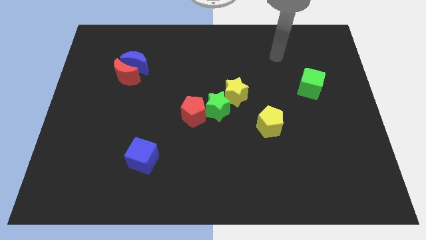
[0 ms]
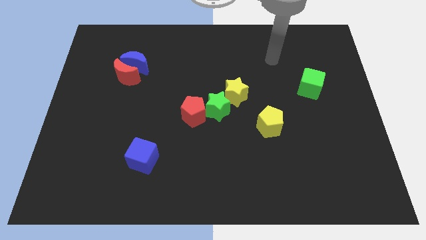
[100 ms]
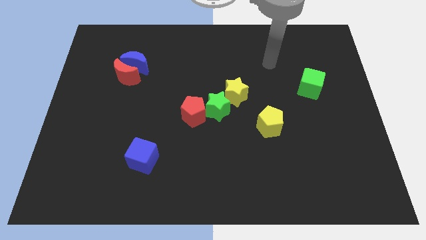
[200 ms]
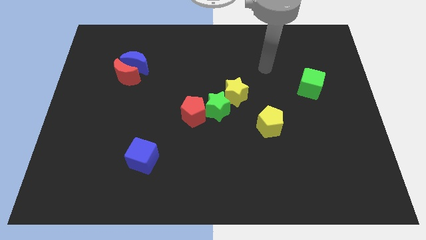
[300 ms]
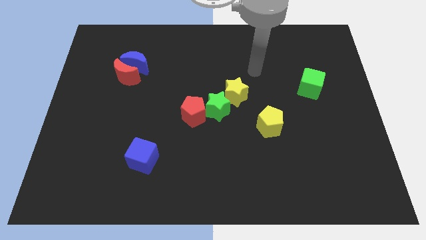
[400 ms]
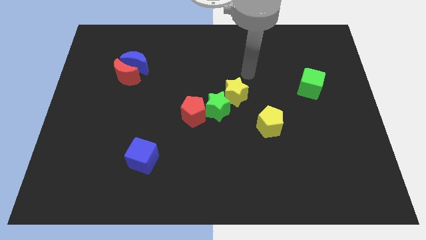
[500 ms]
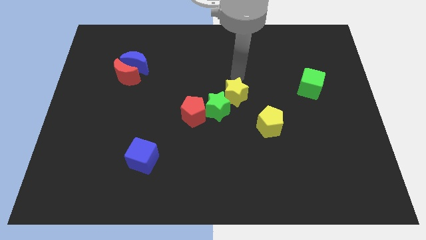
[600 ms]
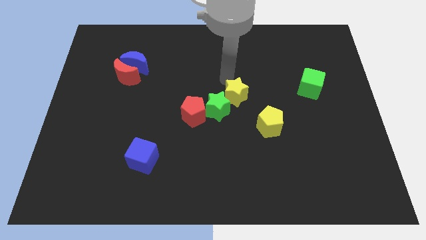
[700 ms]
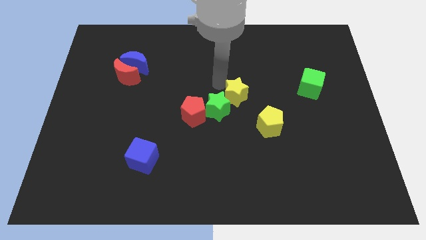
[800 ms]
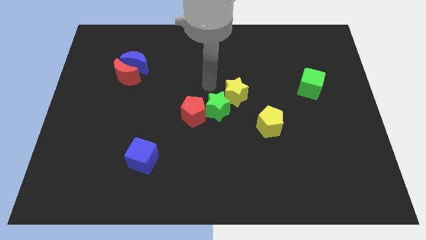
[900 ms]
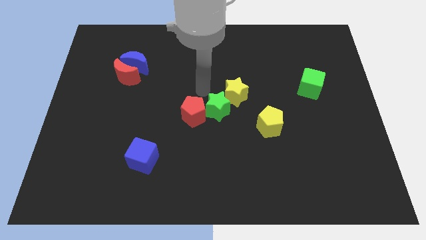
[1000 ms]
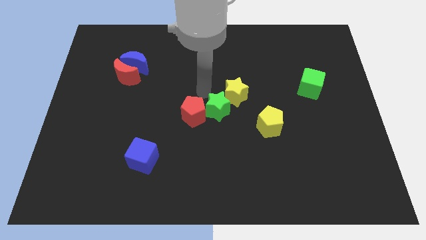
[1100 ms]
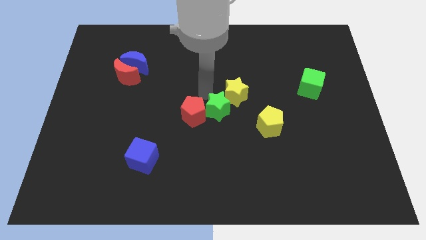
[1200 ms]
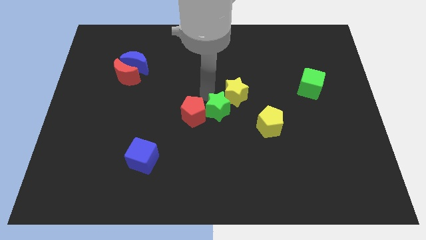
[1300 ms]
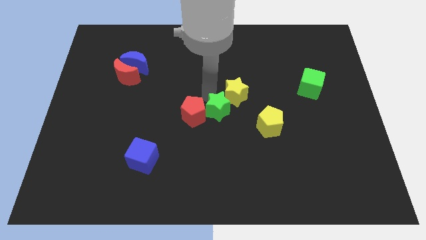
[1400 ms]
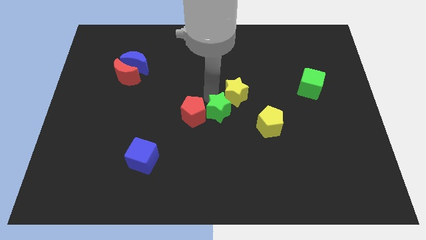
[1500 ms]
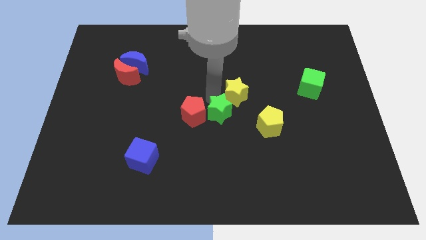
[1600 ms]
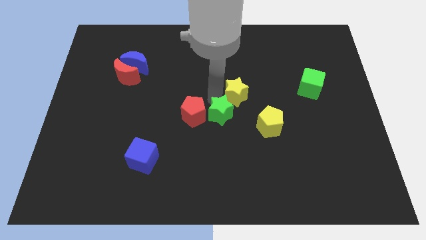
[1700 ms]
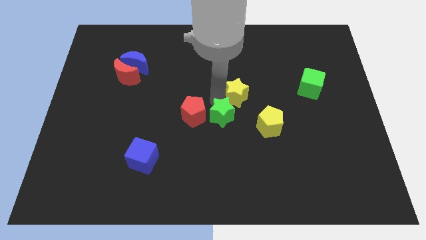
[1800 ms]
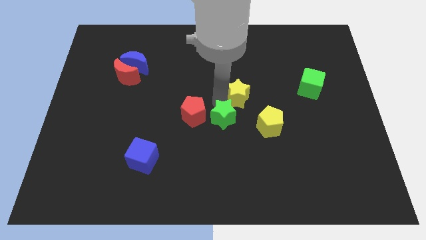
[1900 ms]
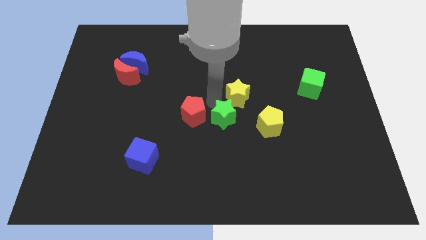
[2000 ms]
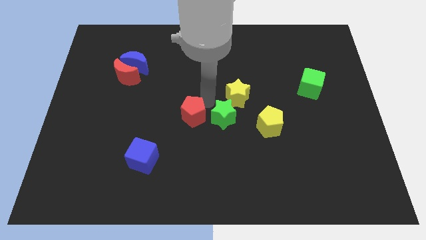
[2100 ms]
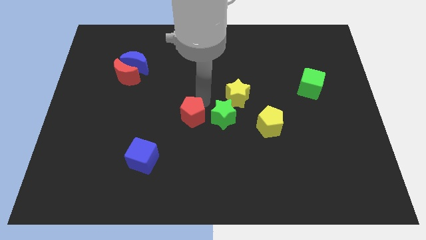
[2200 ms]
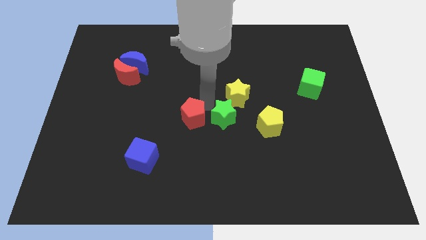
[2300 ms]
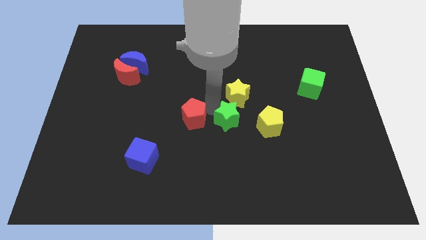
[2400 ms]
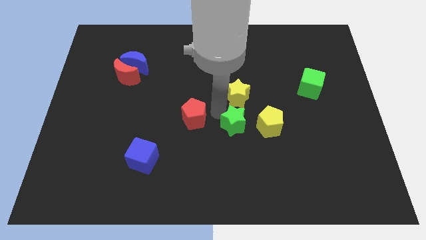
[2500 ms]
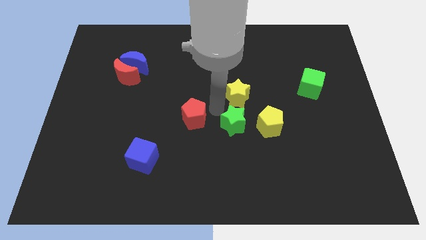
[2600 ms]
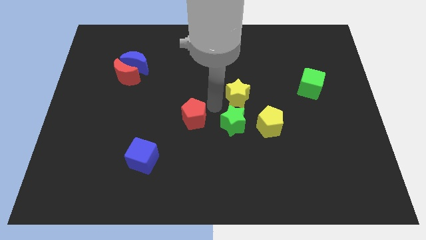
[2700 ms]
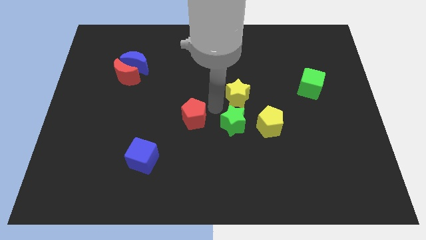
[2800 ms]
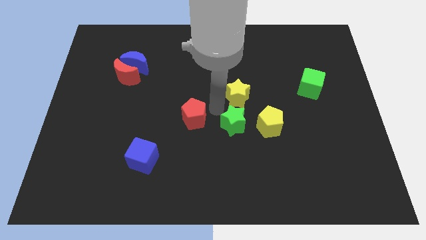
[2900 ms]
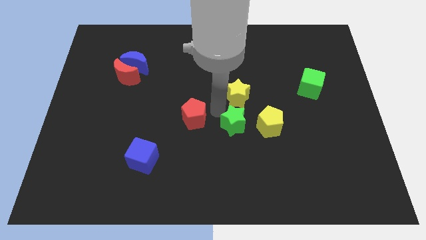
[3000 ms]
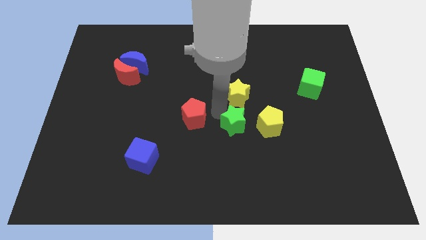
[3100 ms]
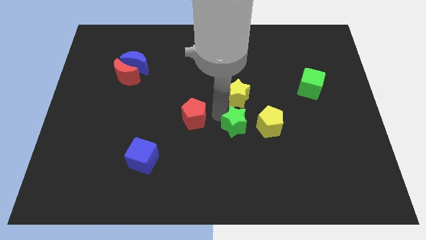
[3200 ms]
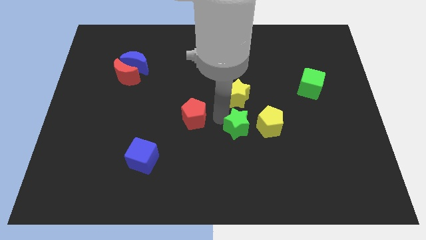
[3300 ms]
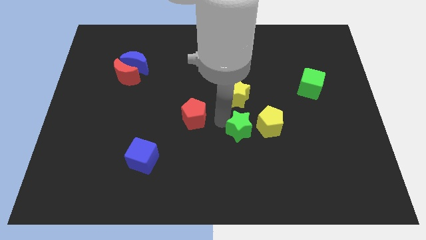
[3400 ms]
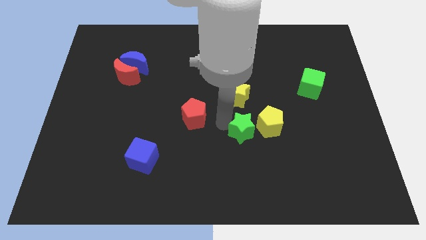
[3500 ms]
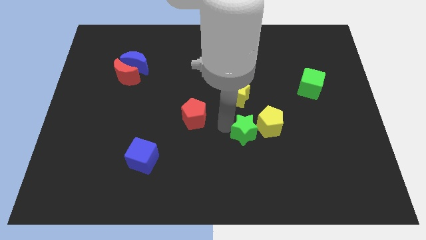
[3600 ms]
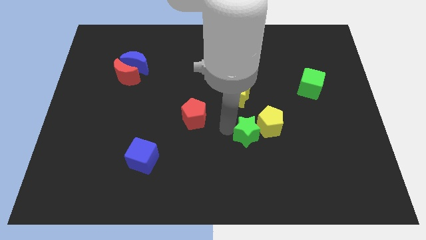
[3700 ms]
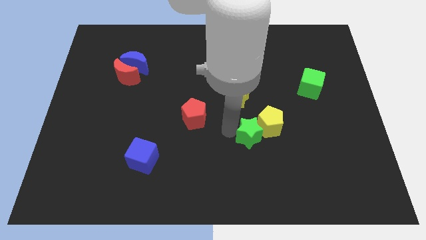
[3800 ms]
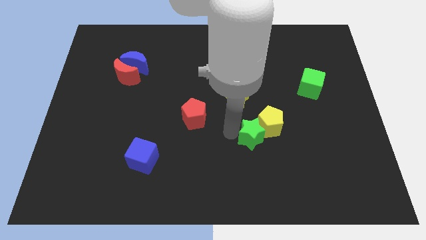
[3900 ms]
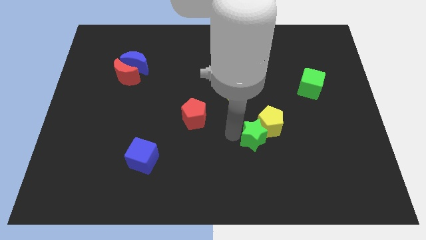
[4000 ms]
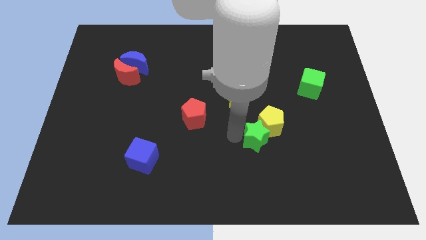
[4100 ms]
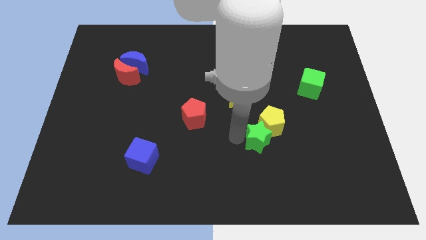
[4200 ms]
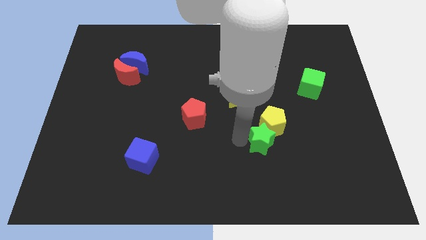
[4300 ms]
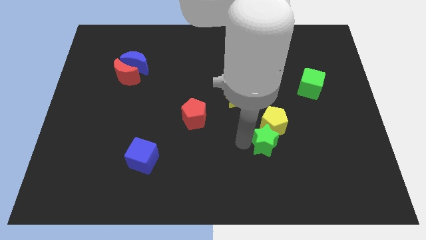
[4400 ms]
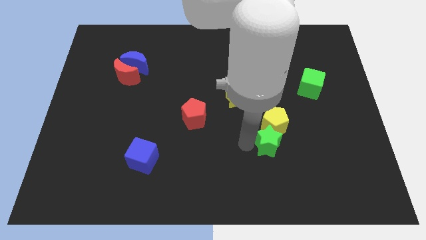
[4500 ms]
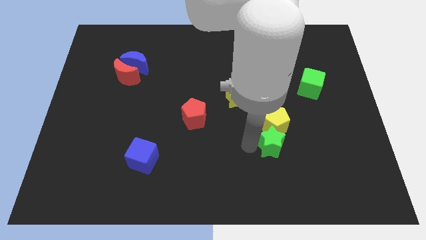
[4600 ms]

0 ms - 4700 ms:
slide the green star to the bottom right side of the yellow pentagon

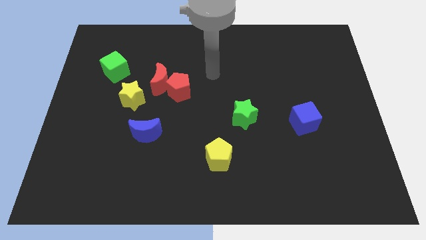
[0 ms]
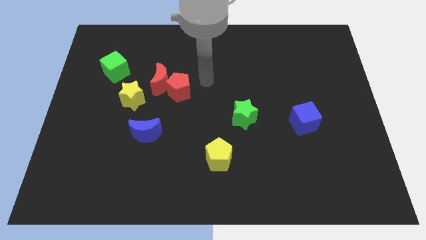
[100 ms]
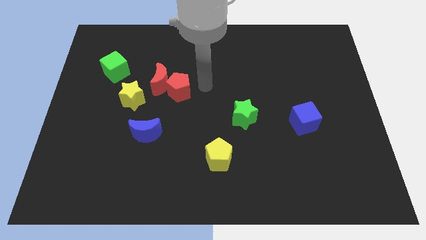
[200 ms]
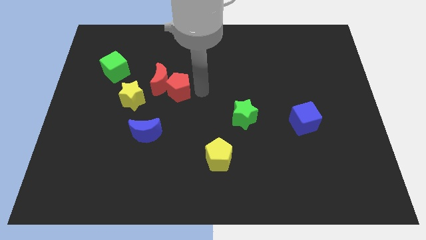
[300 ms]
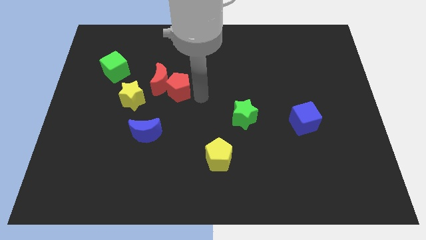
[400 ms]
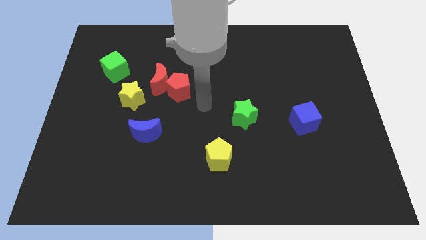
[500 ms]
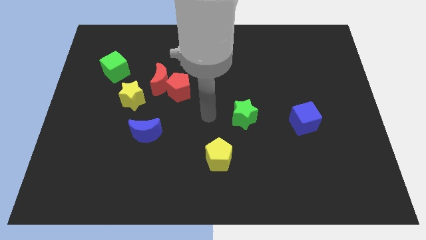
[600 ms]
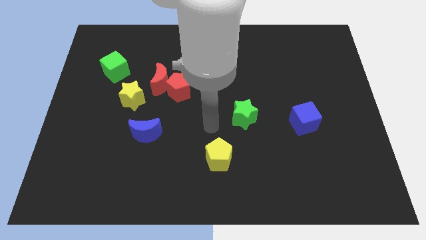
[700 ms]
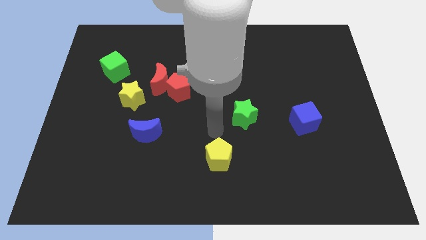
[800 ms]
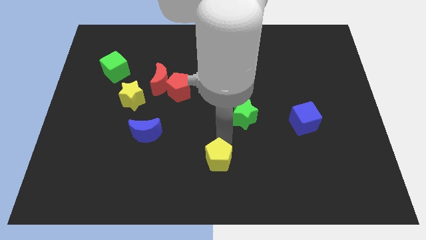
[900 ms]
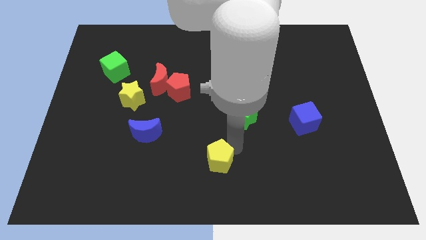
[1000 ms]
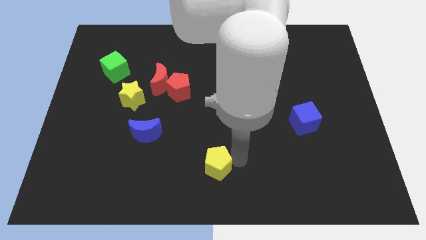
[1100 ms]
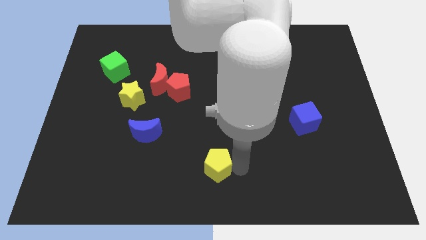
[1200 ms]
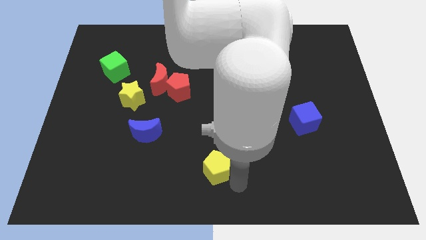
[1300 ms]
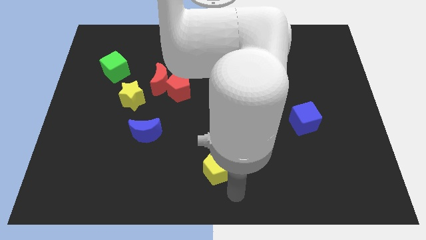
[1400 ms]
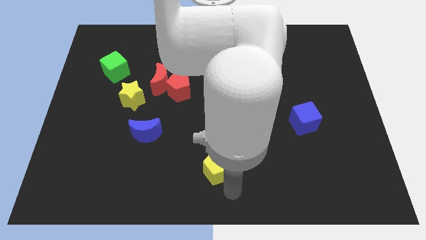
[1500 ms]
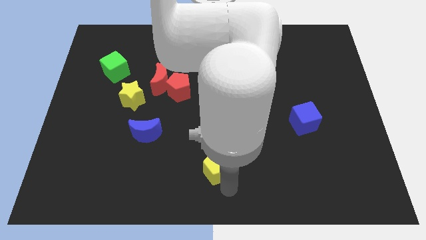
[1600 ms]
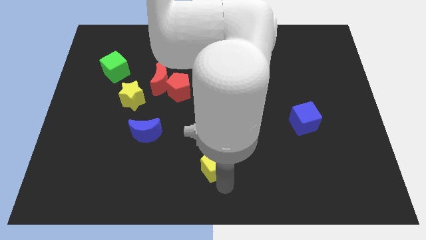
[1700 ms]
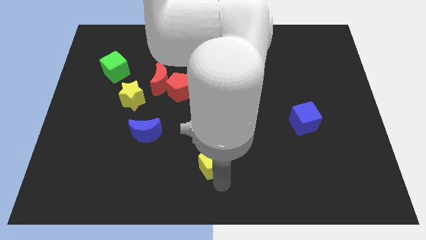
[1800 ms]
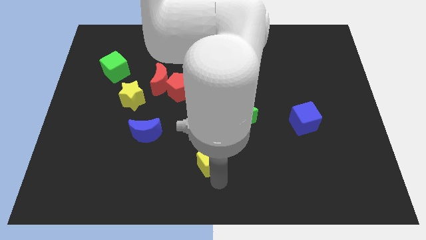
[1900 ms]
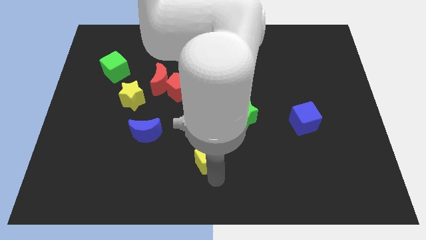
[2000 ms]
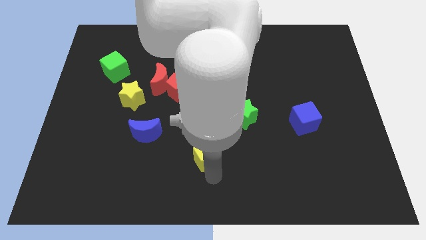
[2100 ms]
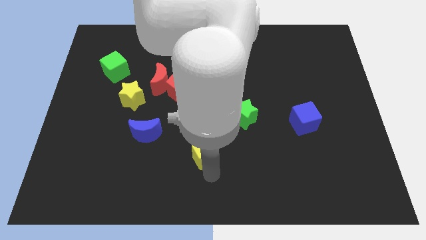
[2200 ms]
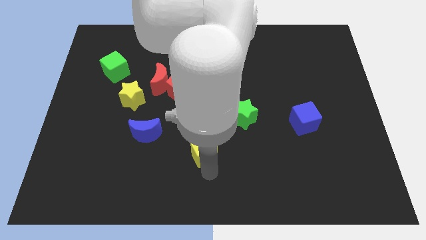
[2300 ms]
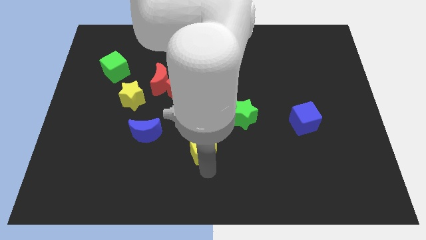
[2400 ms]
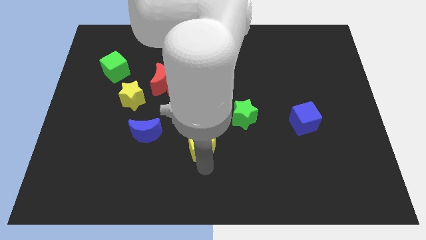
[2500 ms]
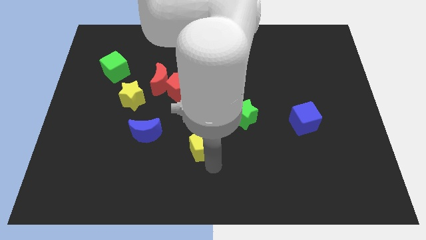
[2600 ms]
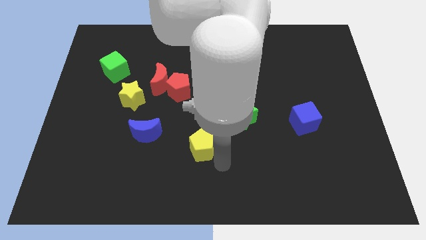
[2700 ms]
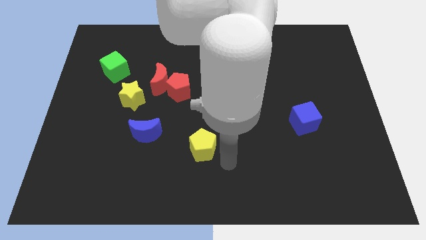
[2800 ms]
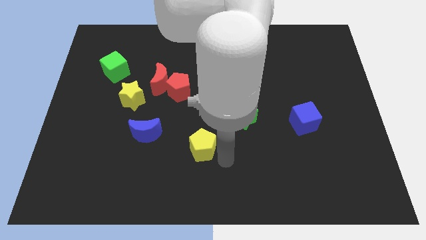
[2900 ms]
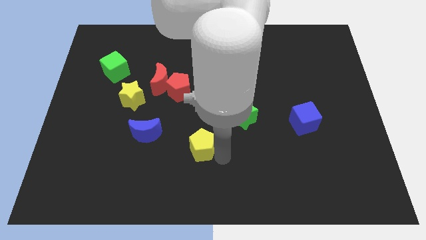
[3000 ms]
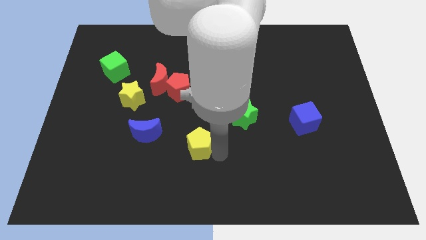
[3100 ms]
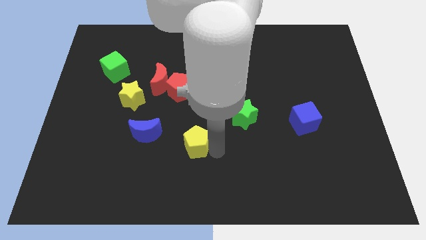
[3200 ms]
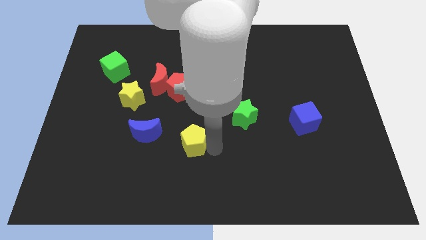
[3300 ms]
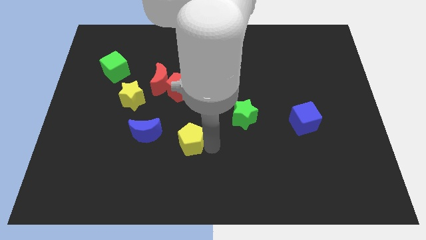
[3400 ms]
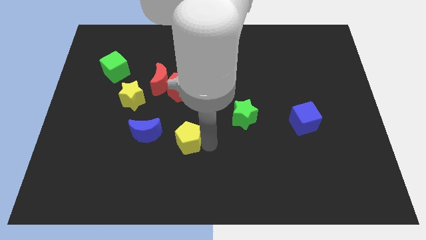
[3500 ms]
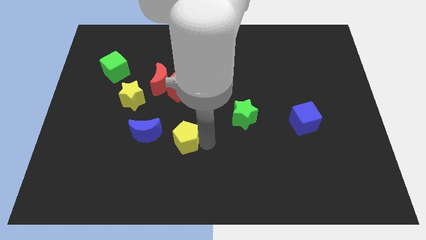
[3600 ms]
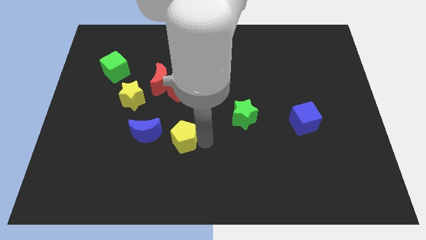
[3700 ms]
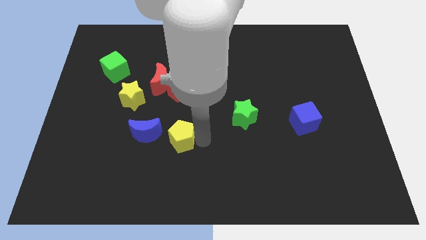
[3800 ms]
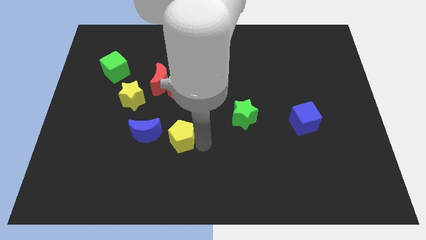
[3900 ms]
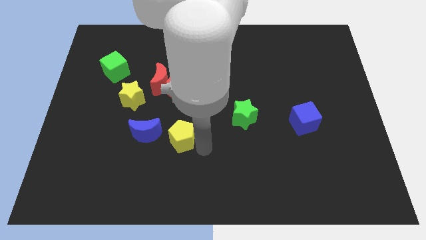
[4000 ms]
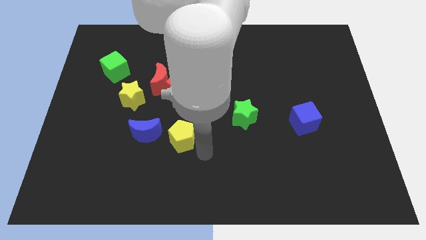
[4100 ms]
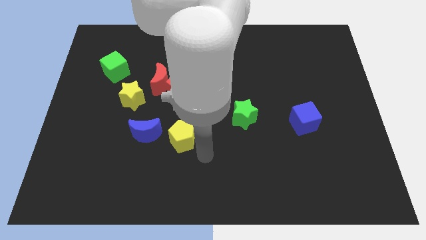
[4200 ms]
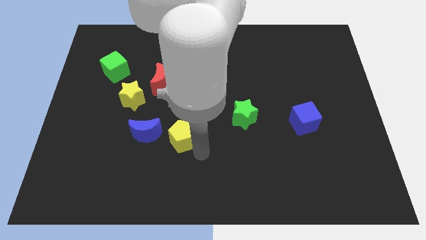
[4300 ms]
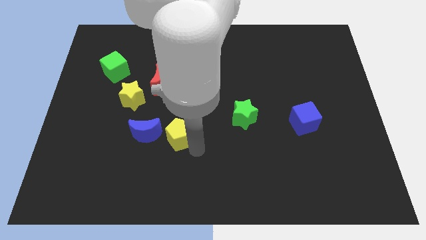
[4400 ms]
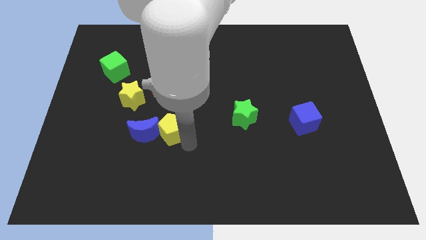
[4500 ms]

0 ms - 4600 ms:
move the yellow pentagon to the bottom side of the red moon
